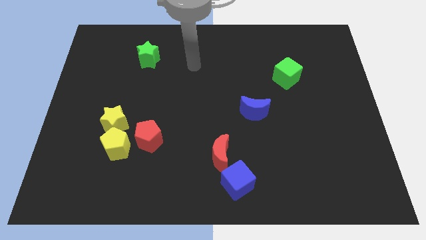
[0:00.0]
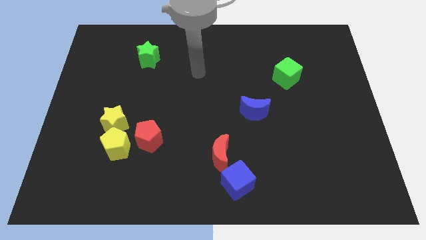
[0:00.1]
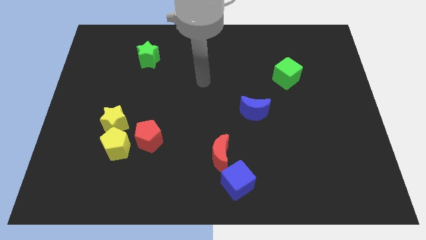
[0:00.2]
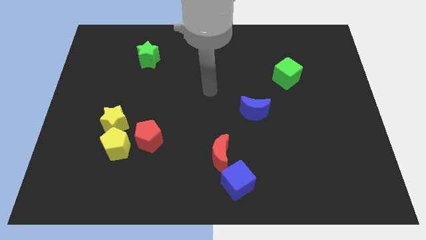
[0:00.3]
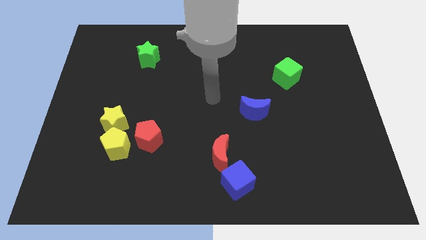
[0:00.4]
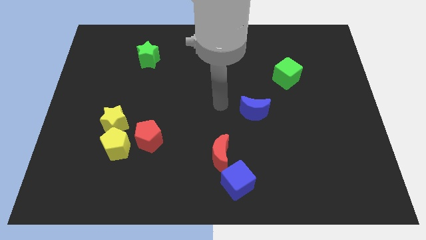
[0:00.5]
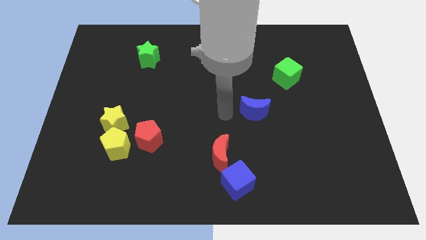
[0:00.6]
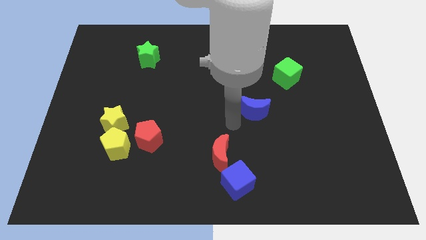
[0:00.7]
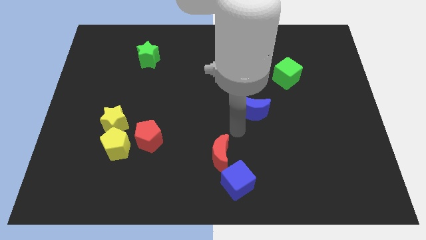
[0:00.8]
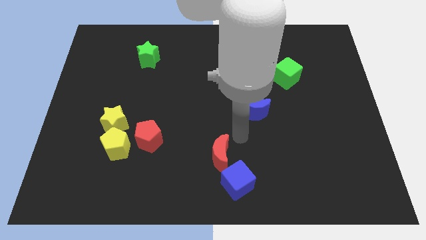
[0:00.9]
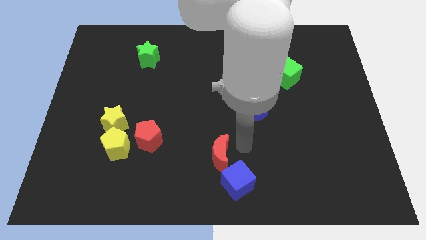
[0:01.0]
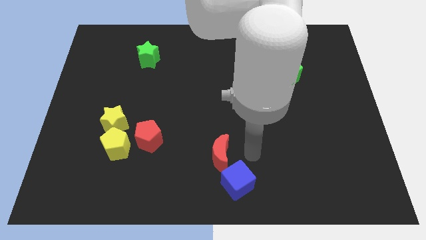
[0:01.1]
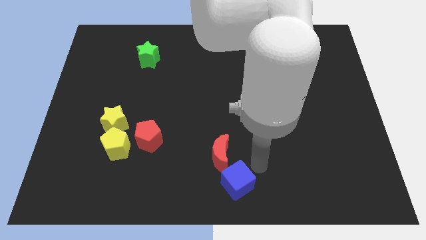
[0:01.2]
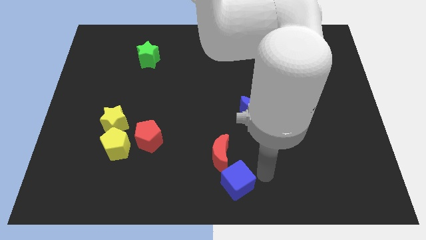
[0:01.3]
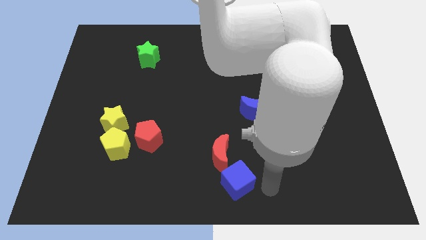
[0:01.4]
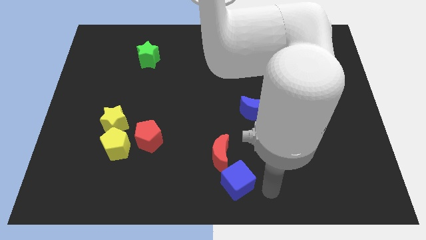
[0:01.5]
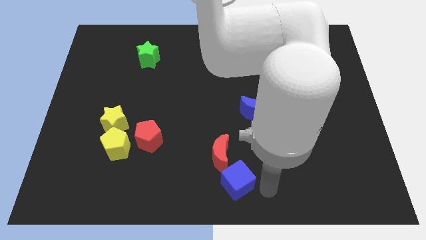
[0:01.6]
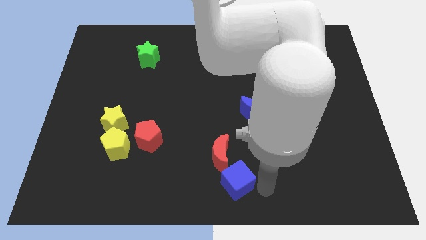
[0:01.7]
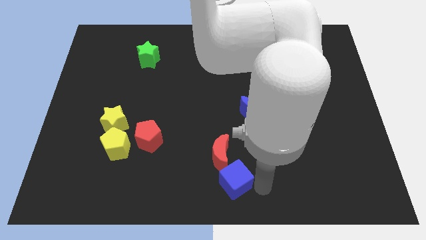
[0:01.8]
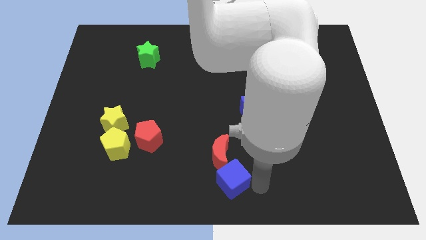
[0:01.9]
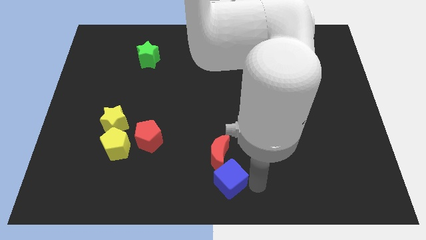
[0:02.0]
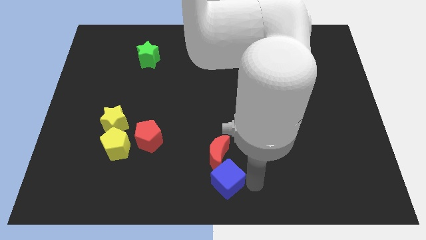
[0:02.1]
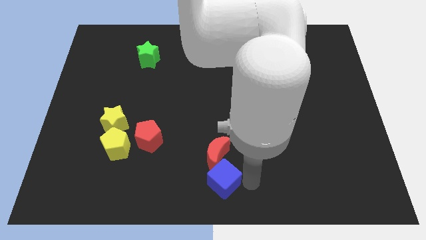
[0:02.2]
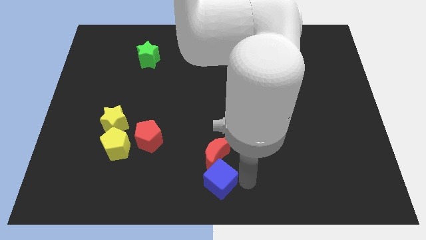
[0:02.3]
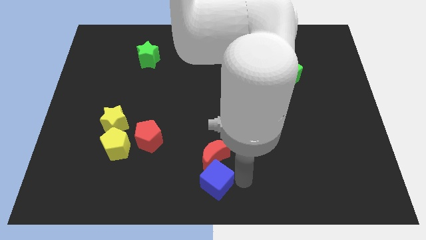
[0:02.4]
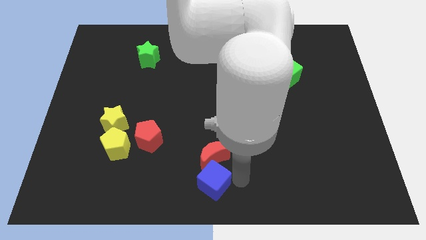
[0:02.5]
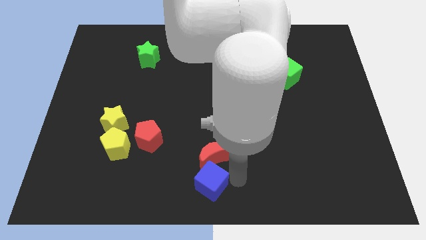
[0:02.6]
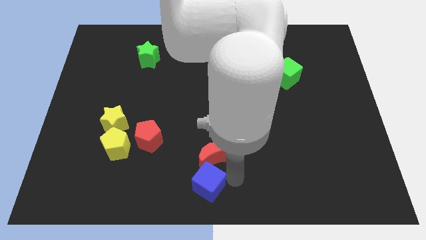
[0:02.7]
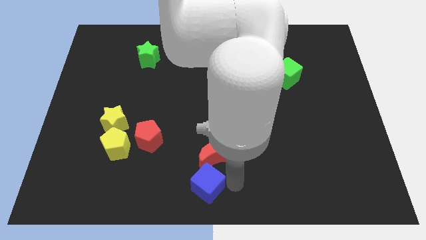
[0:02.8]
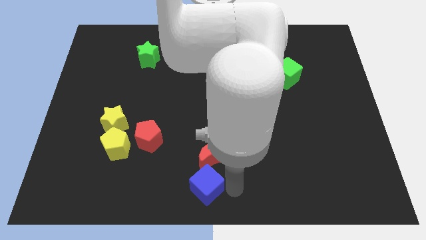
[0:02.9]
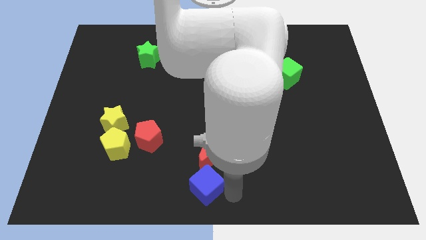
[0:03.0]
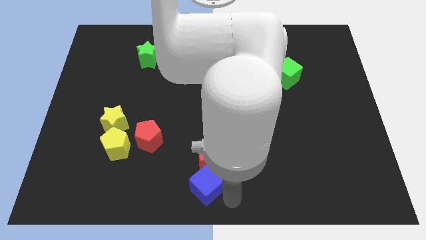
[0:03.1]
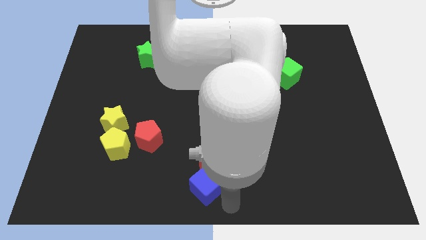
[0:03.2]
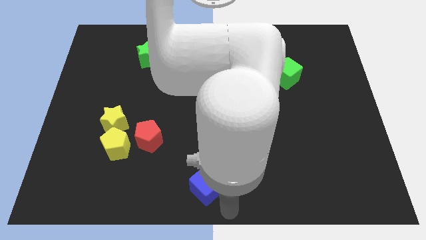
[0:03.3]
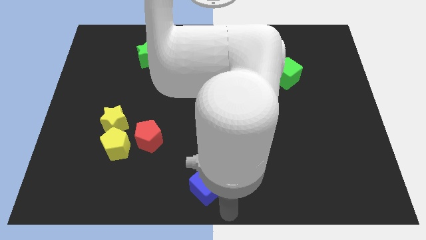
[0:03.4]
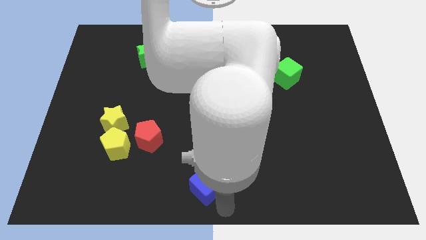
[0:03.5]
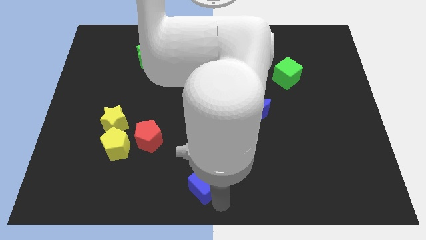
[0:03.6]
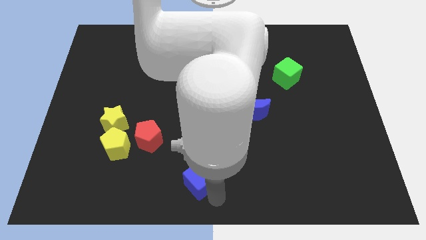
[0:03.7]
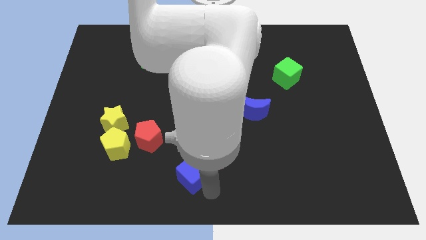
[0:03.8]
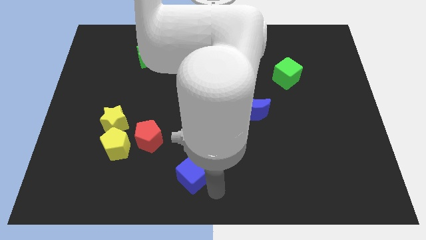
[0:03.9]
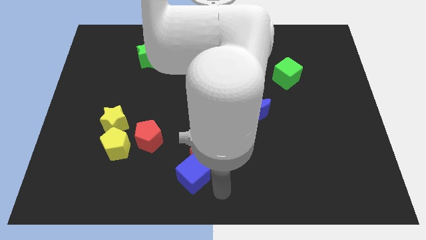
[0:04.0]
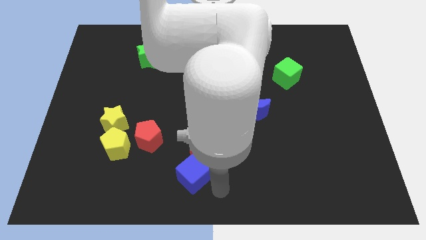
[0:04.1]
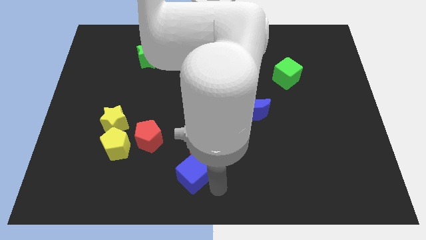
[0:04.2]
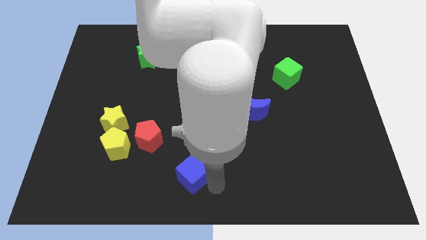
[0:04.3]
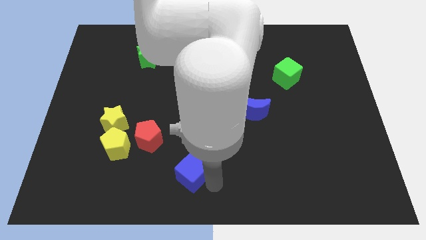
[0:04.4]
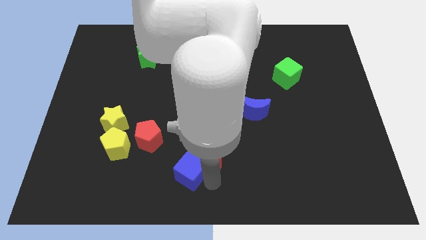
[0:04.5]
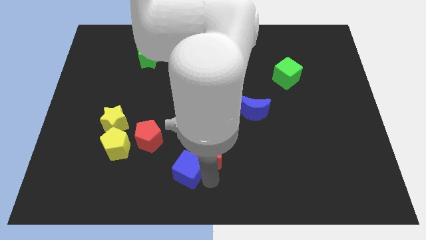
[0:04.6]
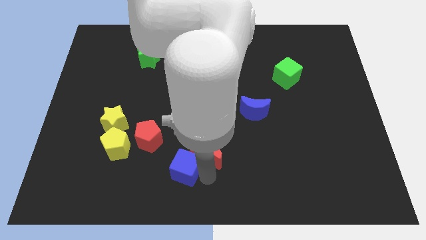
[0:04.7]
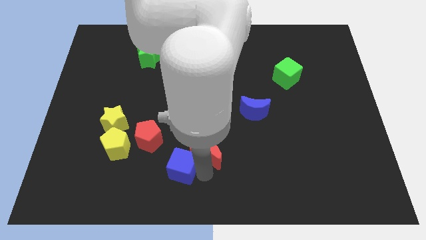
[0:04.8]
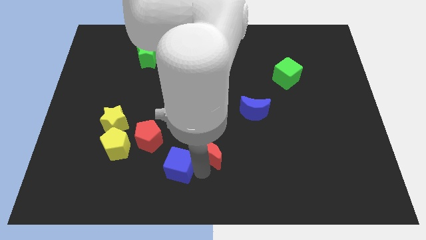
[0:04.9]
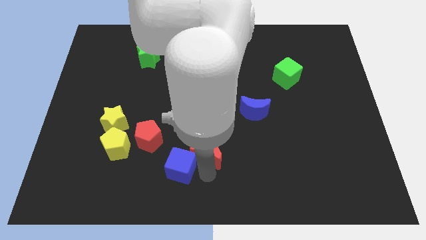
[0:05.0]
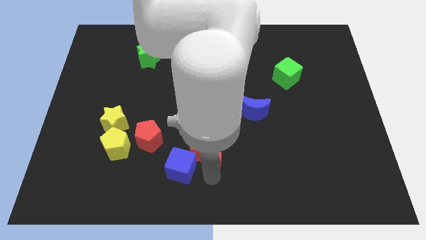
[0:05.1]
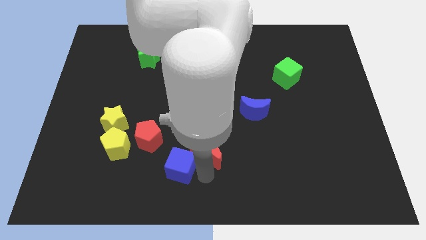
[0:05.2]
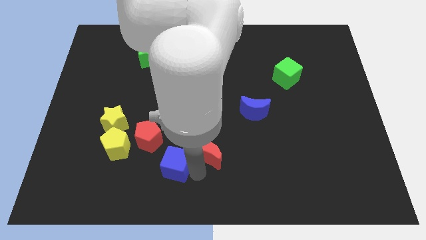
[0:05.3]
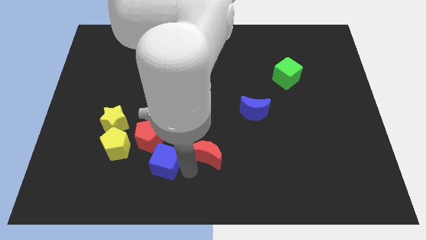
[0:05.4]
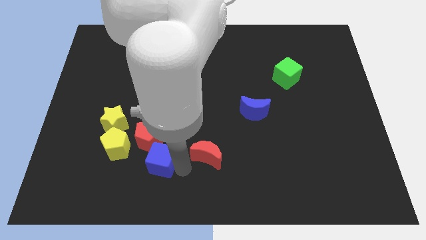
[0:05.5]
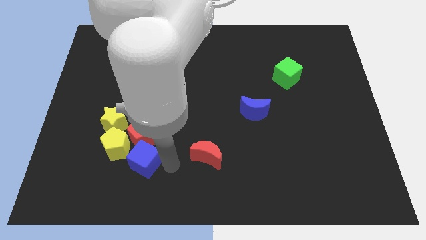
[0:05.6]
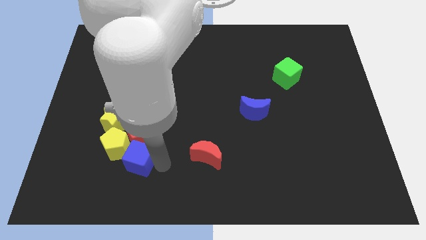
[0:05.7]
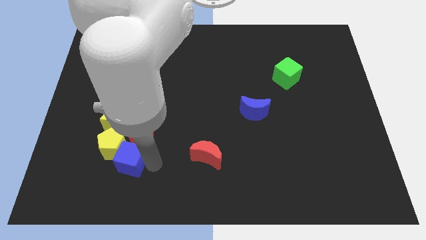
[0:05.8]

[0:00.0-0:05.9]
slide the blue cube close to the yellow pentagon

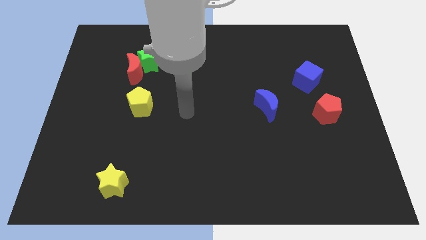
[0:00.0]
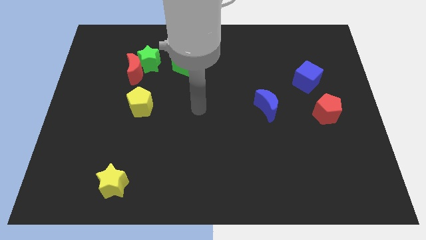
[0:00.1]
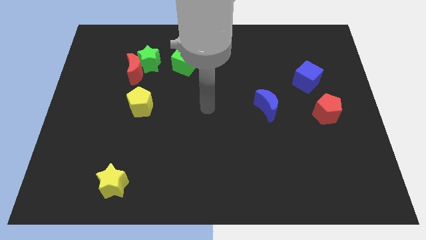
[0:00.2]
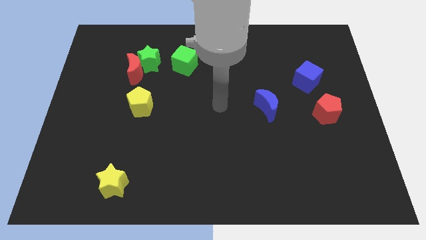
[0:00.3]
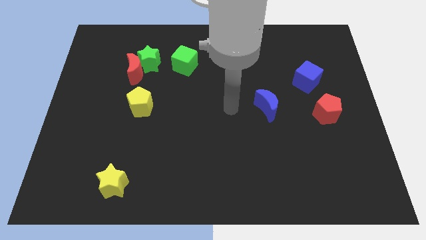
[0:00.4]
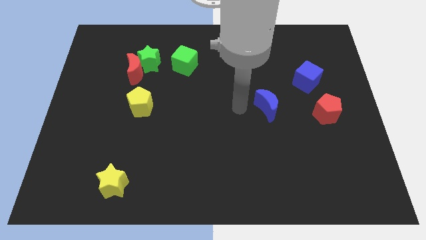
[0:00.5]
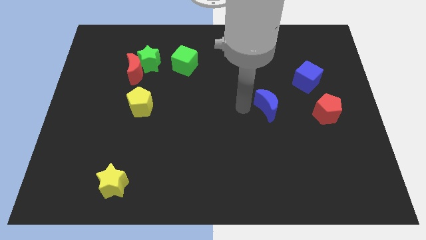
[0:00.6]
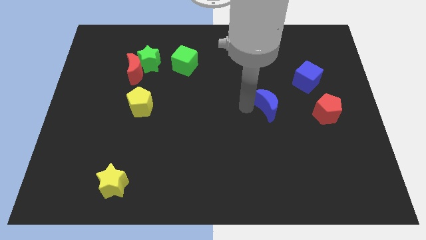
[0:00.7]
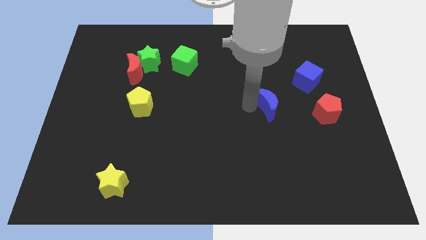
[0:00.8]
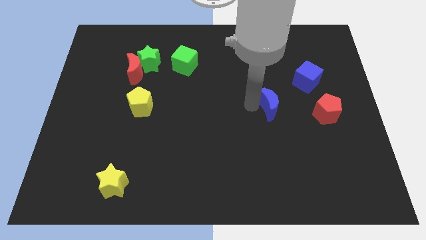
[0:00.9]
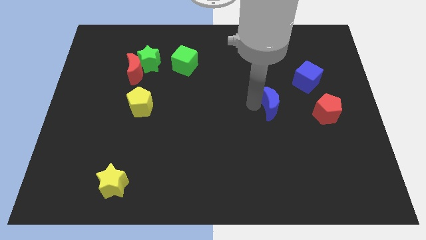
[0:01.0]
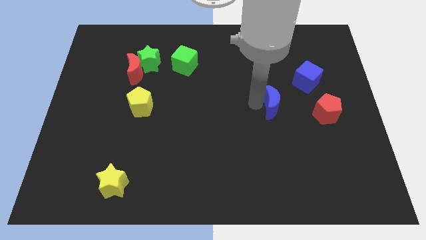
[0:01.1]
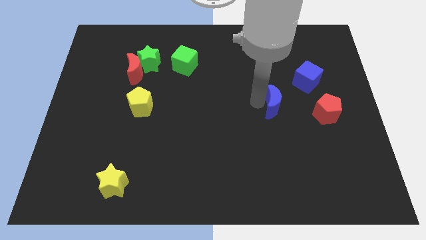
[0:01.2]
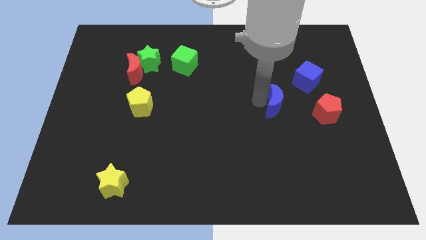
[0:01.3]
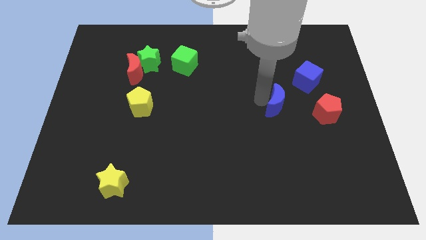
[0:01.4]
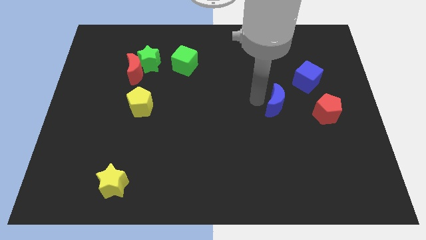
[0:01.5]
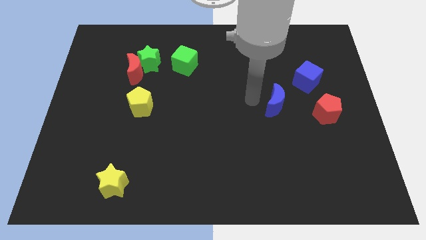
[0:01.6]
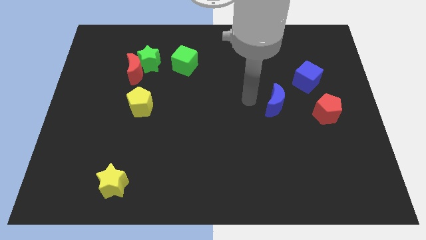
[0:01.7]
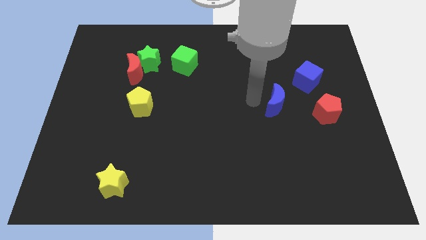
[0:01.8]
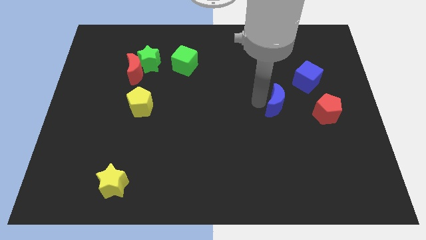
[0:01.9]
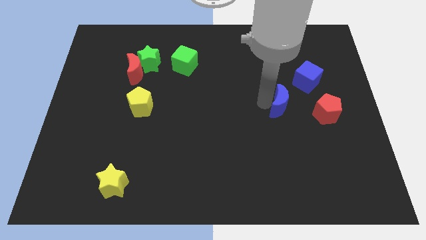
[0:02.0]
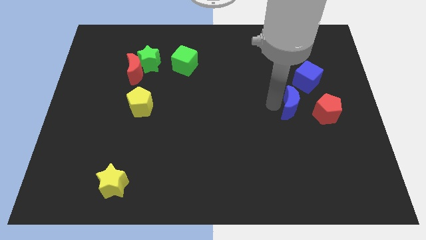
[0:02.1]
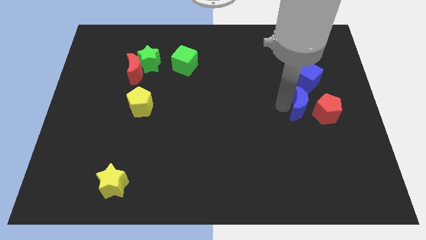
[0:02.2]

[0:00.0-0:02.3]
move the blue moon to the red pentagon
